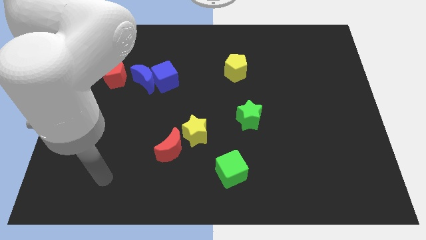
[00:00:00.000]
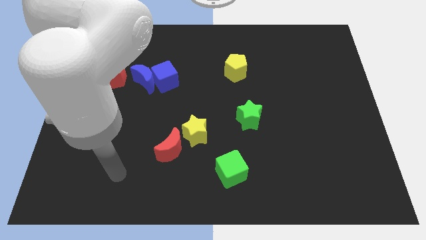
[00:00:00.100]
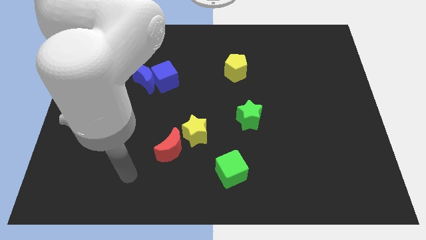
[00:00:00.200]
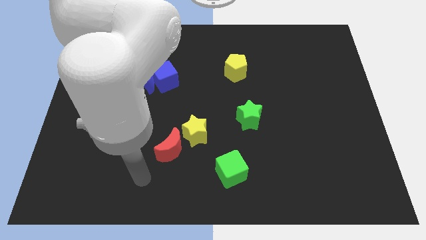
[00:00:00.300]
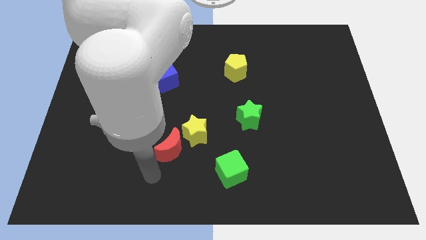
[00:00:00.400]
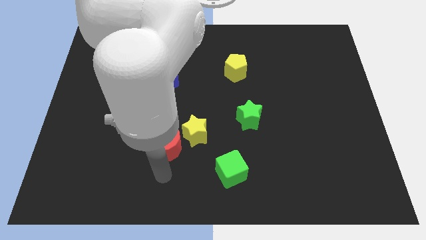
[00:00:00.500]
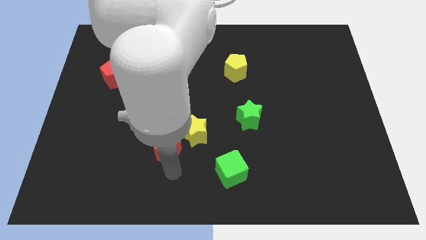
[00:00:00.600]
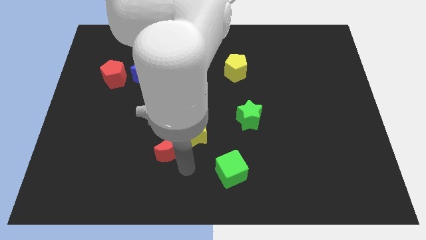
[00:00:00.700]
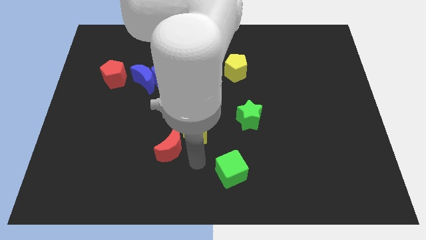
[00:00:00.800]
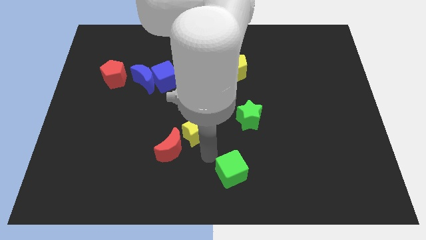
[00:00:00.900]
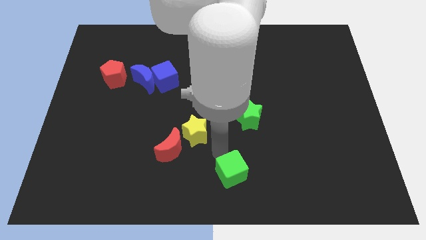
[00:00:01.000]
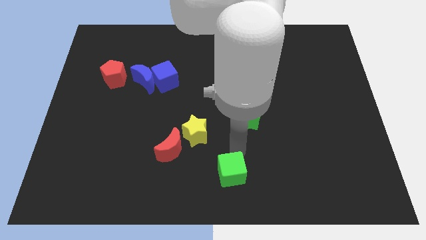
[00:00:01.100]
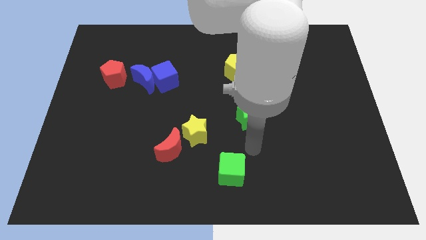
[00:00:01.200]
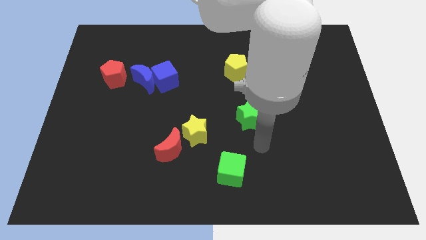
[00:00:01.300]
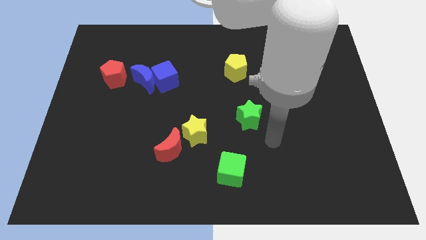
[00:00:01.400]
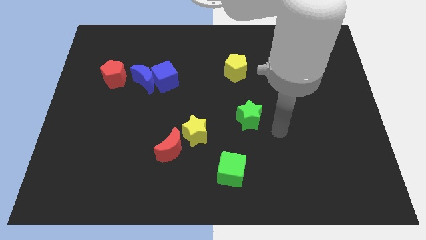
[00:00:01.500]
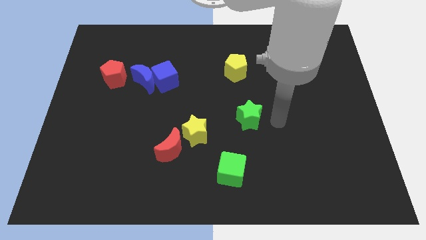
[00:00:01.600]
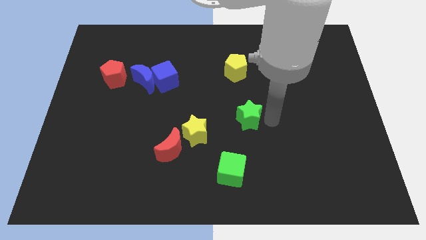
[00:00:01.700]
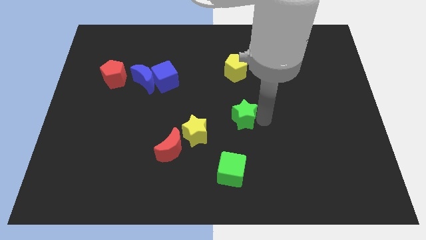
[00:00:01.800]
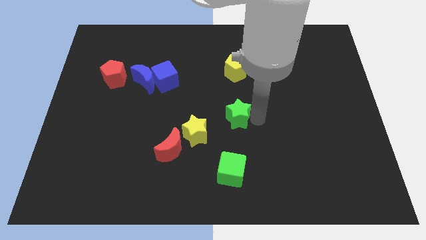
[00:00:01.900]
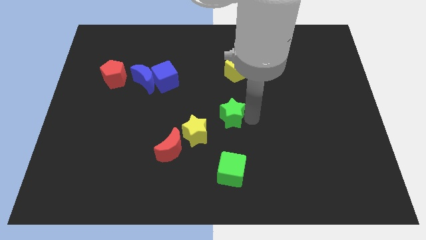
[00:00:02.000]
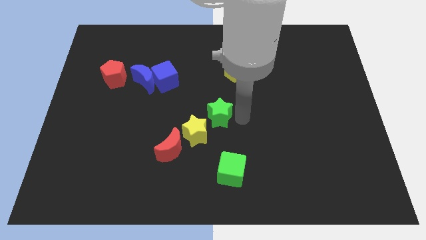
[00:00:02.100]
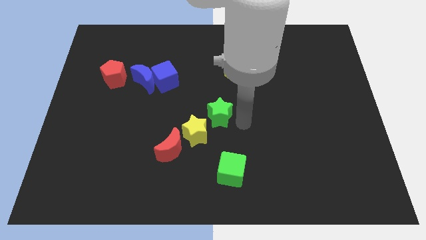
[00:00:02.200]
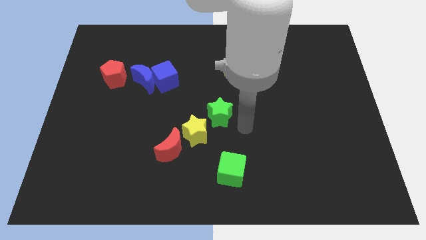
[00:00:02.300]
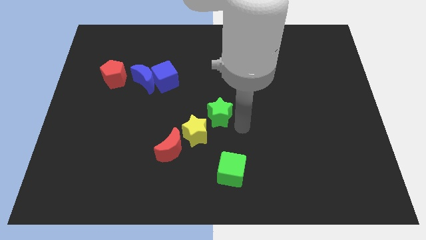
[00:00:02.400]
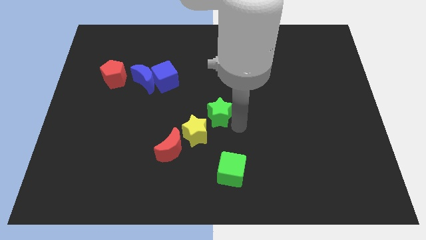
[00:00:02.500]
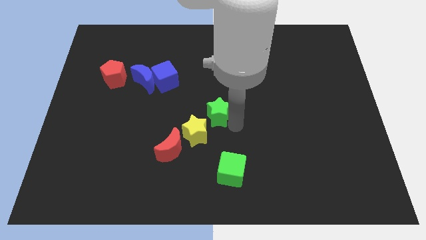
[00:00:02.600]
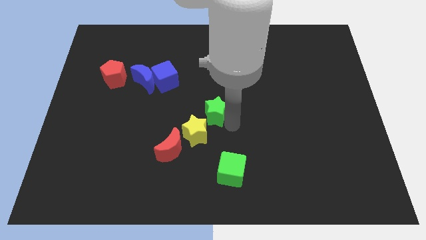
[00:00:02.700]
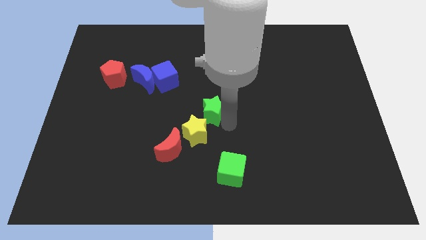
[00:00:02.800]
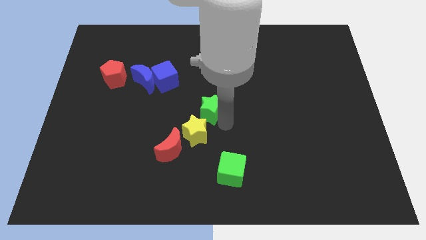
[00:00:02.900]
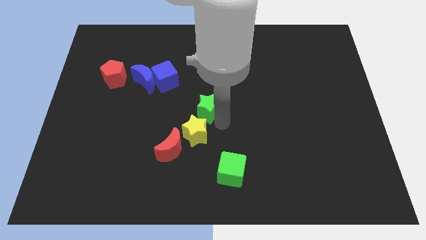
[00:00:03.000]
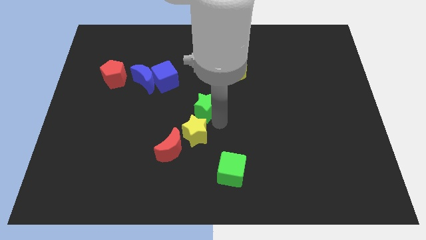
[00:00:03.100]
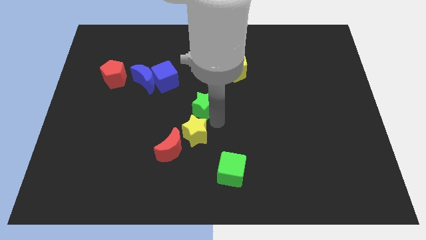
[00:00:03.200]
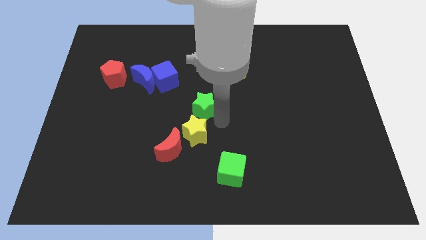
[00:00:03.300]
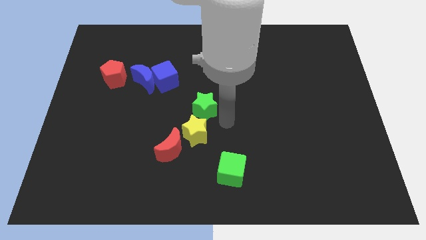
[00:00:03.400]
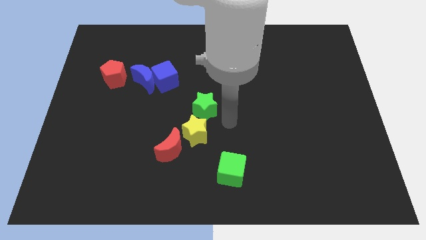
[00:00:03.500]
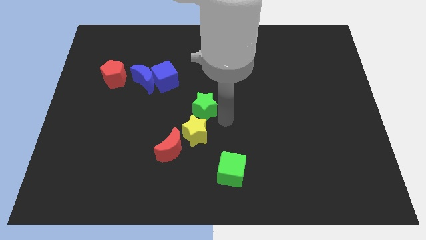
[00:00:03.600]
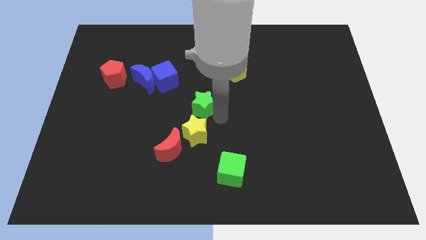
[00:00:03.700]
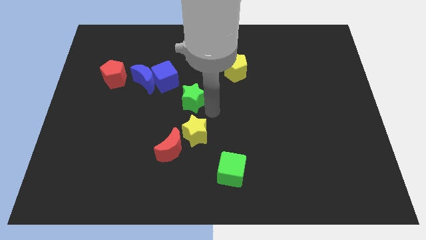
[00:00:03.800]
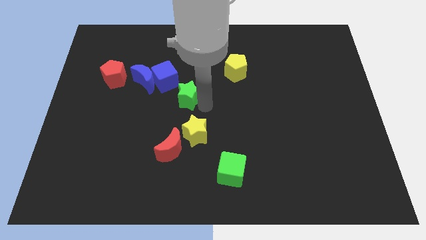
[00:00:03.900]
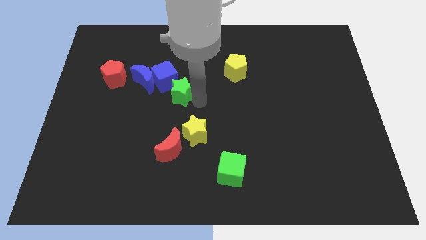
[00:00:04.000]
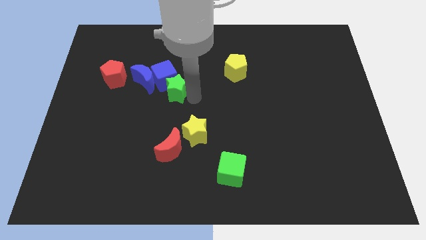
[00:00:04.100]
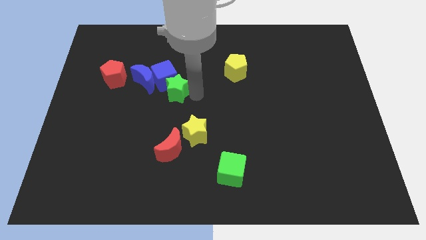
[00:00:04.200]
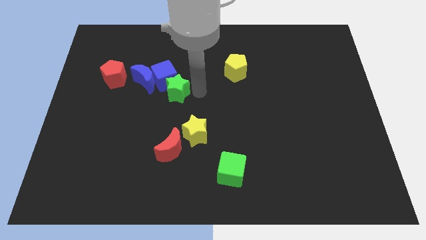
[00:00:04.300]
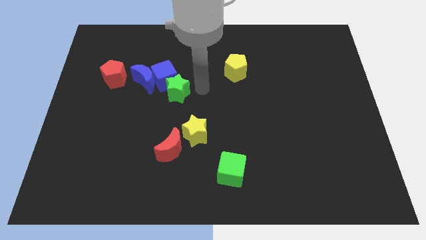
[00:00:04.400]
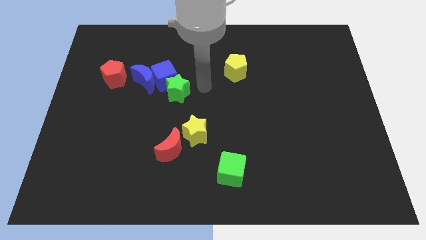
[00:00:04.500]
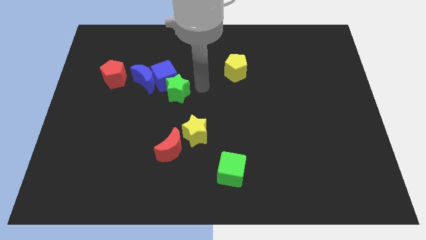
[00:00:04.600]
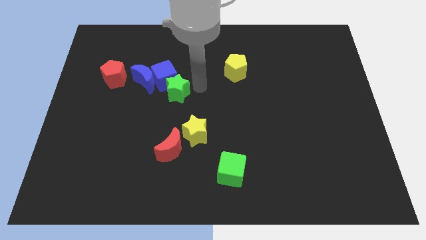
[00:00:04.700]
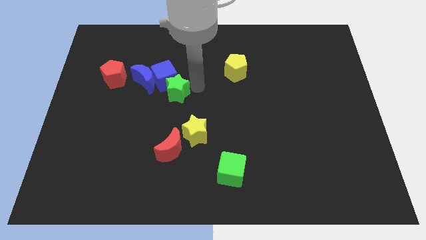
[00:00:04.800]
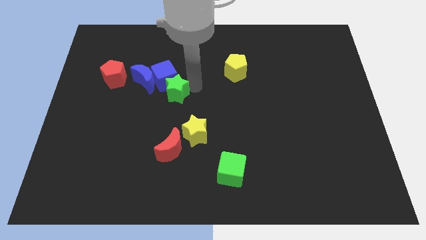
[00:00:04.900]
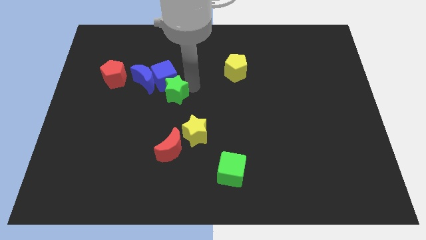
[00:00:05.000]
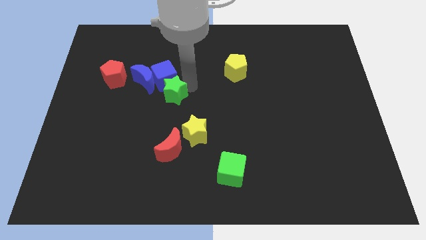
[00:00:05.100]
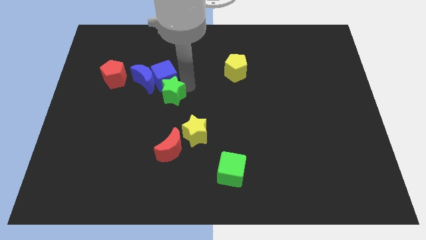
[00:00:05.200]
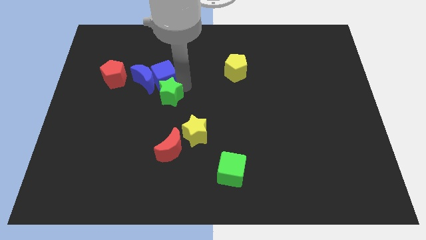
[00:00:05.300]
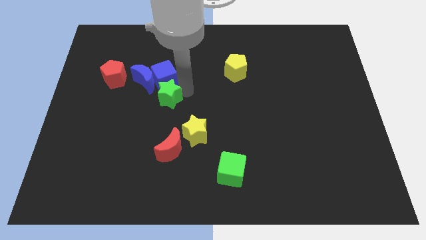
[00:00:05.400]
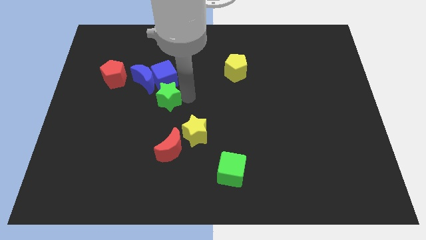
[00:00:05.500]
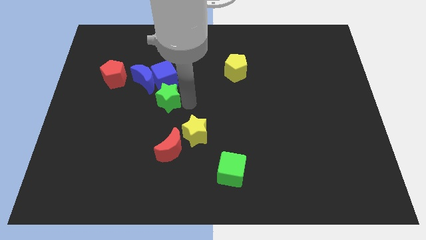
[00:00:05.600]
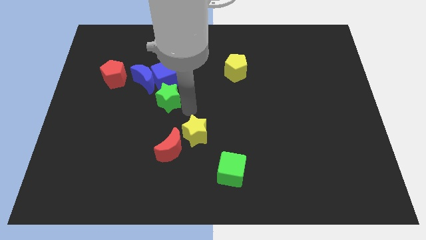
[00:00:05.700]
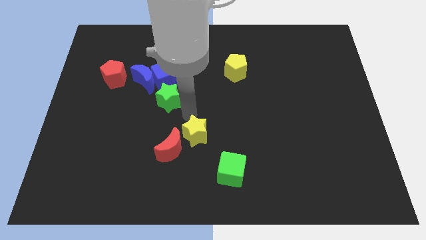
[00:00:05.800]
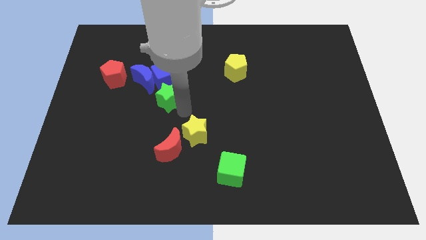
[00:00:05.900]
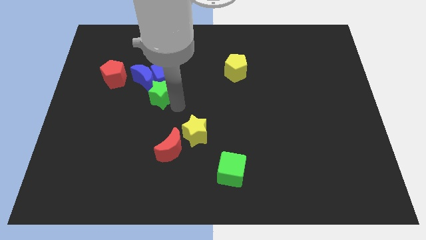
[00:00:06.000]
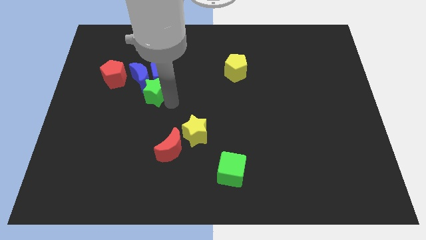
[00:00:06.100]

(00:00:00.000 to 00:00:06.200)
put the green star towards the blue moon

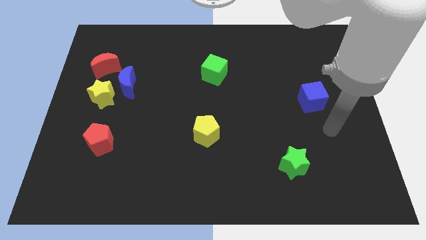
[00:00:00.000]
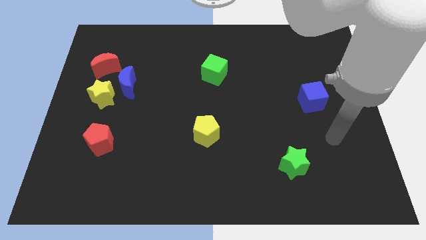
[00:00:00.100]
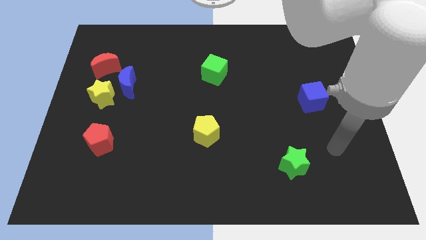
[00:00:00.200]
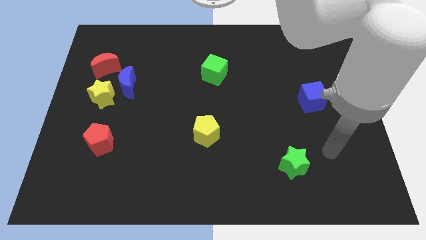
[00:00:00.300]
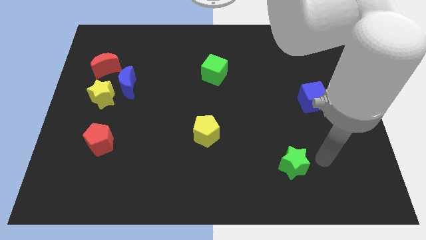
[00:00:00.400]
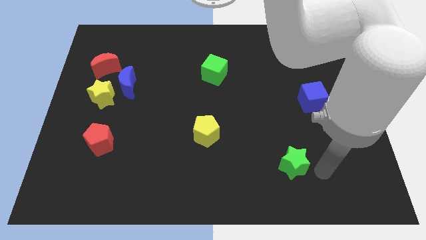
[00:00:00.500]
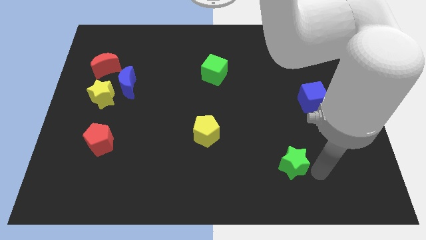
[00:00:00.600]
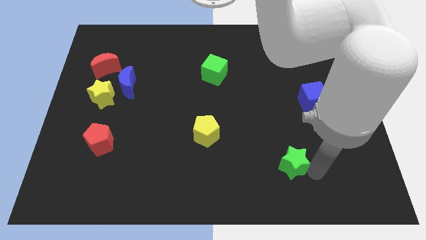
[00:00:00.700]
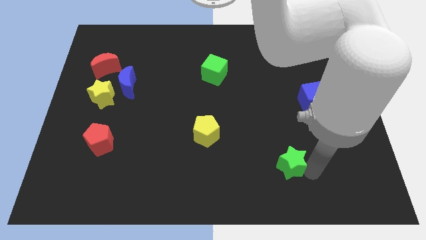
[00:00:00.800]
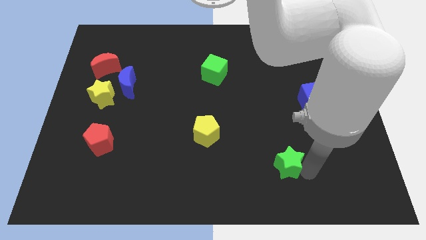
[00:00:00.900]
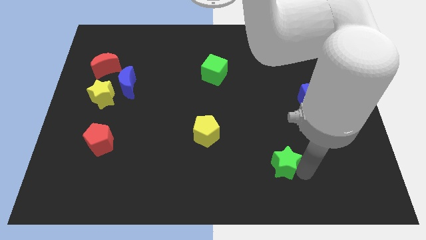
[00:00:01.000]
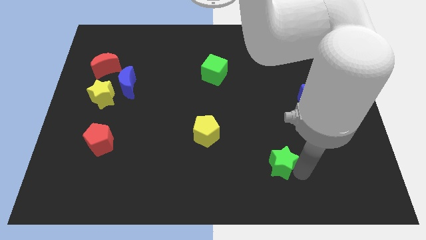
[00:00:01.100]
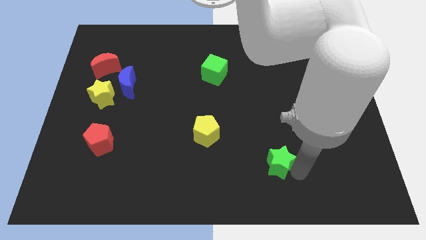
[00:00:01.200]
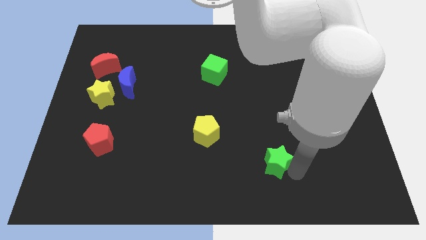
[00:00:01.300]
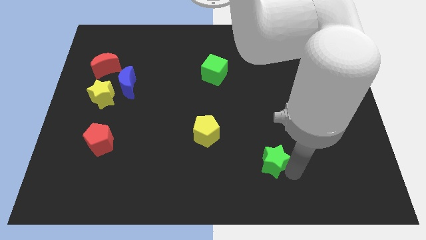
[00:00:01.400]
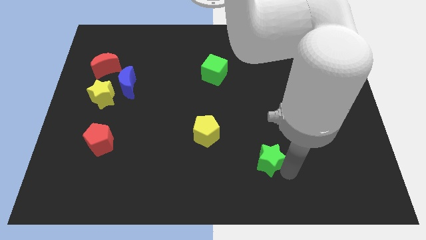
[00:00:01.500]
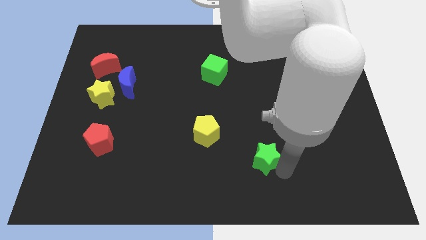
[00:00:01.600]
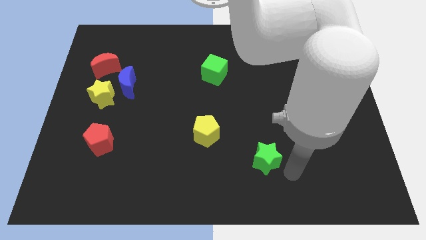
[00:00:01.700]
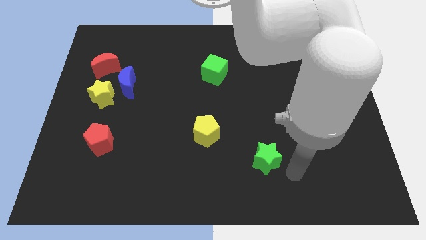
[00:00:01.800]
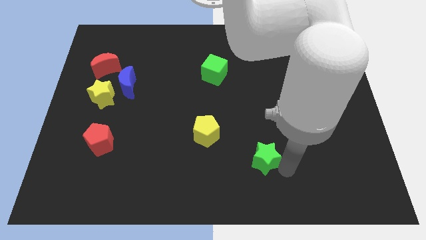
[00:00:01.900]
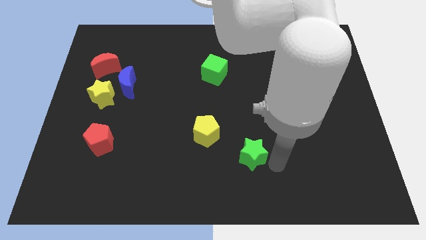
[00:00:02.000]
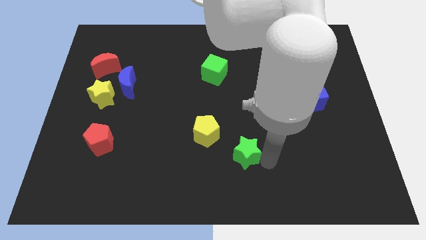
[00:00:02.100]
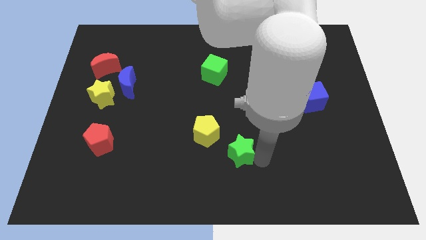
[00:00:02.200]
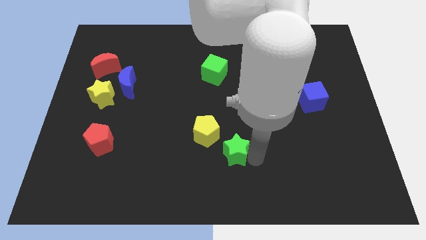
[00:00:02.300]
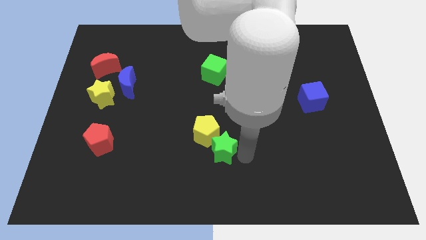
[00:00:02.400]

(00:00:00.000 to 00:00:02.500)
slide the green star to the yellow pentagon
